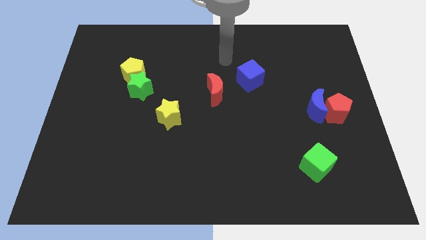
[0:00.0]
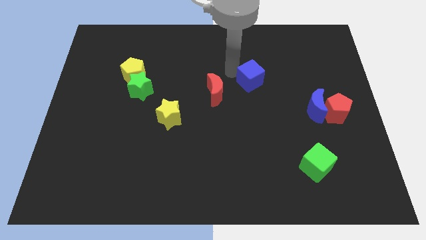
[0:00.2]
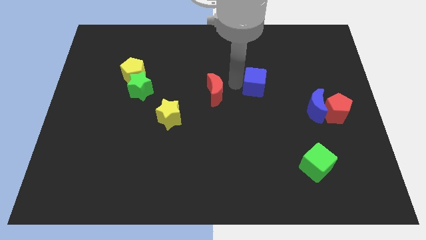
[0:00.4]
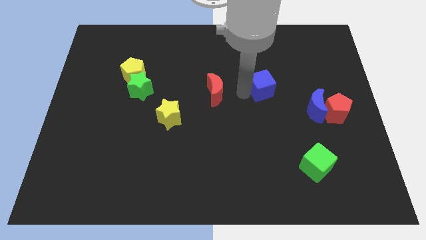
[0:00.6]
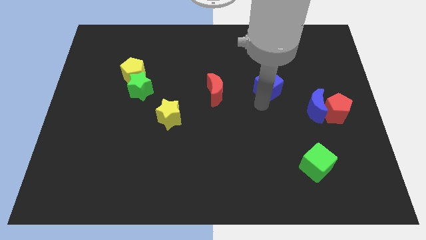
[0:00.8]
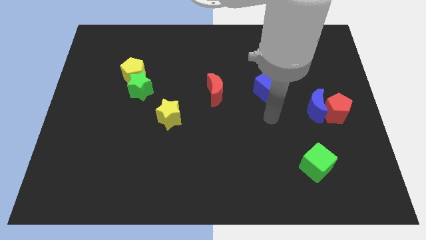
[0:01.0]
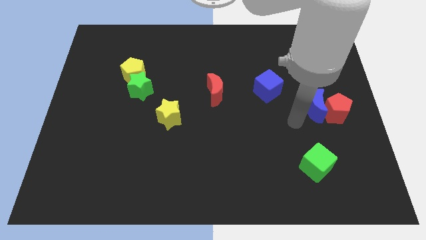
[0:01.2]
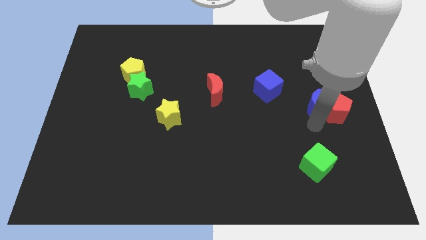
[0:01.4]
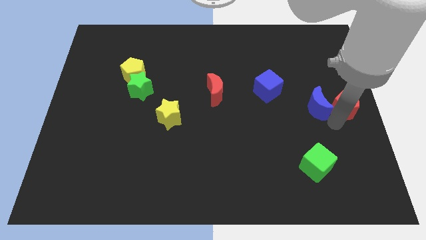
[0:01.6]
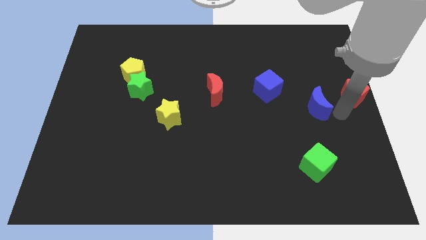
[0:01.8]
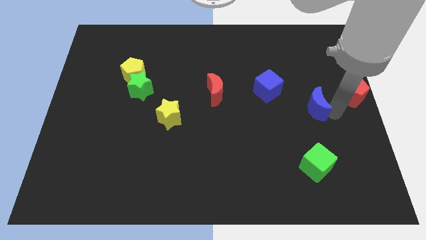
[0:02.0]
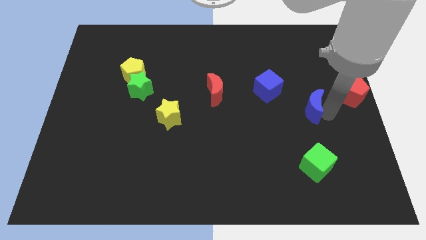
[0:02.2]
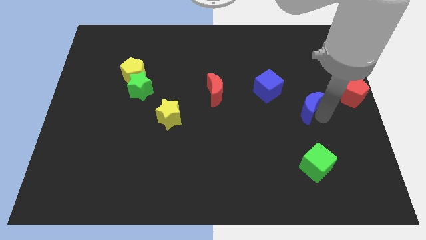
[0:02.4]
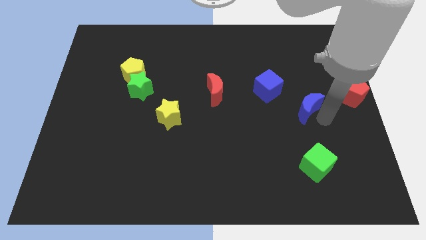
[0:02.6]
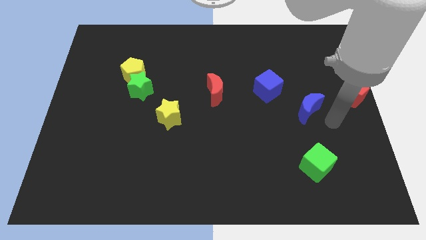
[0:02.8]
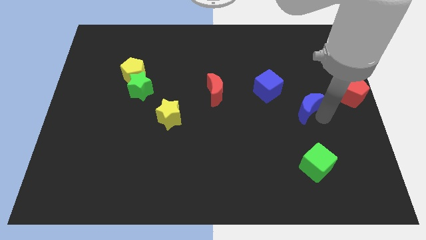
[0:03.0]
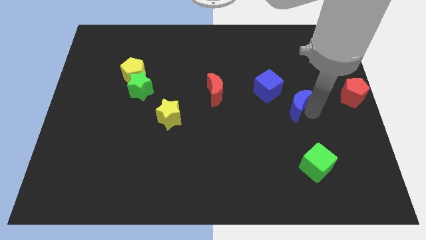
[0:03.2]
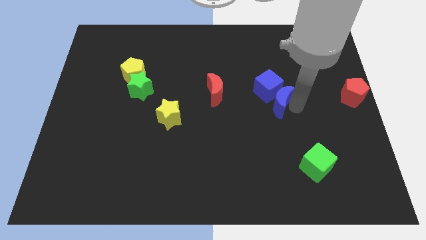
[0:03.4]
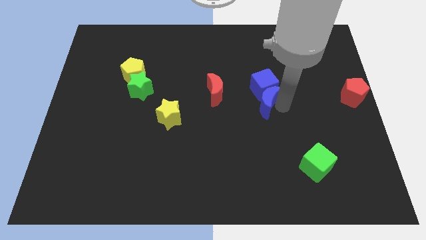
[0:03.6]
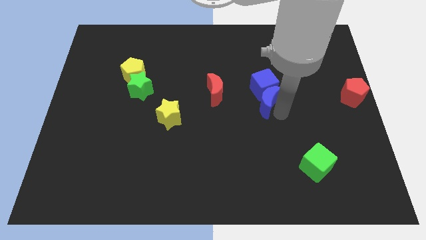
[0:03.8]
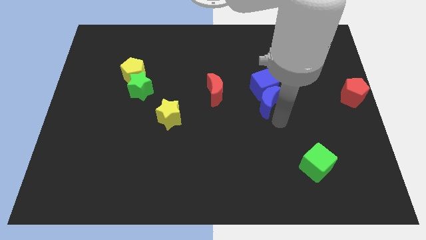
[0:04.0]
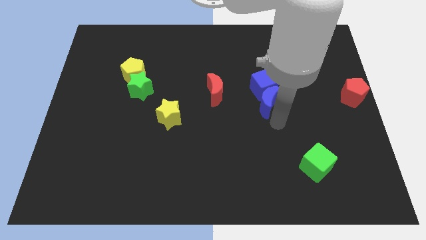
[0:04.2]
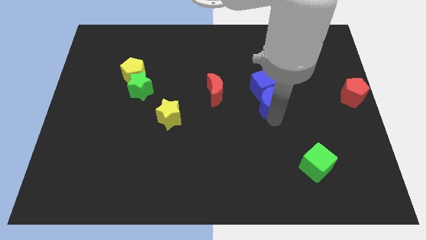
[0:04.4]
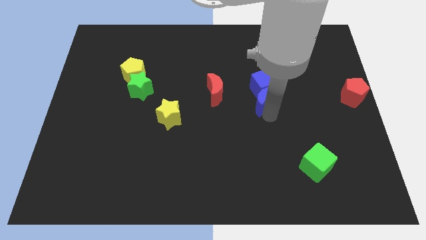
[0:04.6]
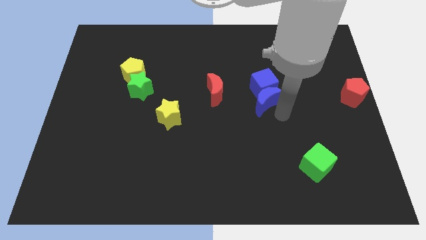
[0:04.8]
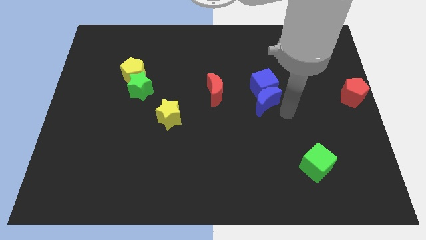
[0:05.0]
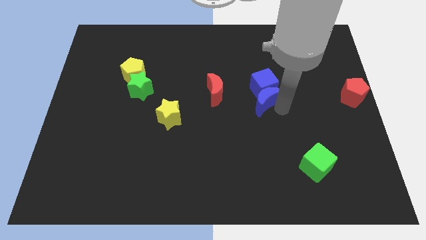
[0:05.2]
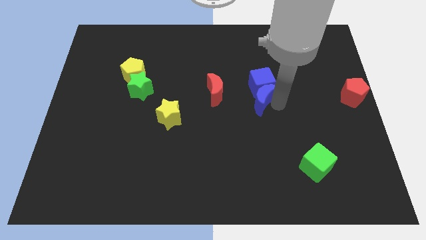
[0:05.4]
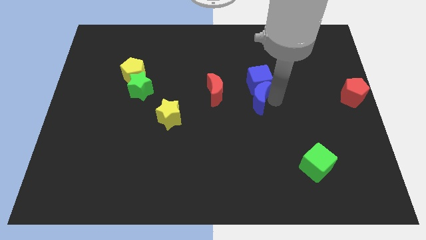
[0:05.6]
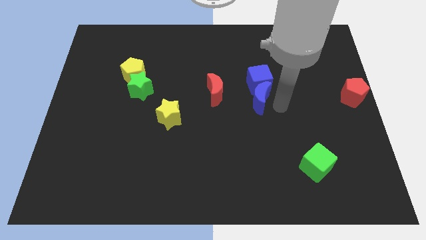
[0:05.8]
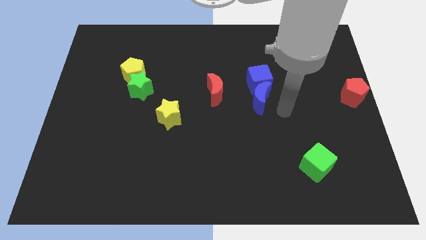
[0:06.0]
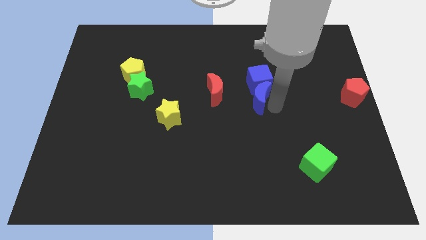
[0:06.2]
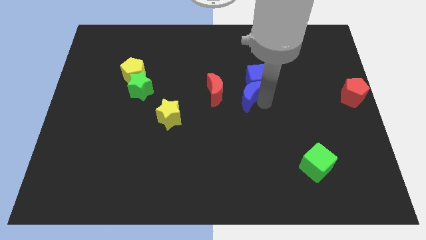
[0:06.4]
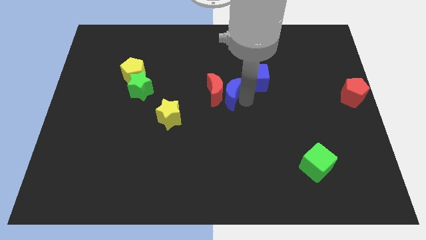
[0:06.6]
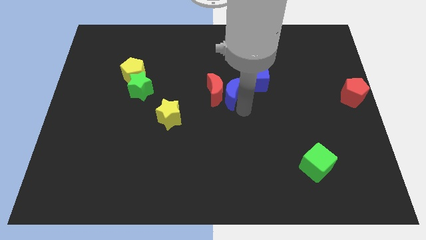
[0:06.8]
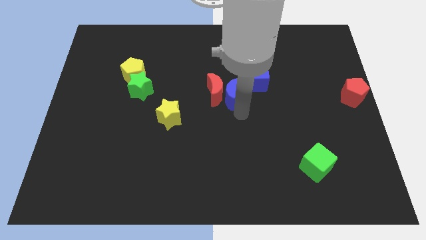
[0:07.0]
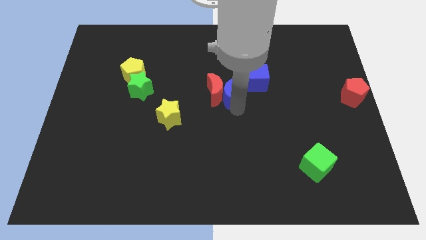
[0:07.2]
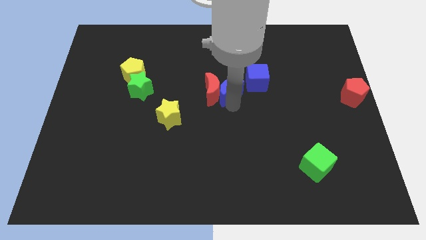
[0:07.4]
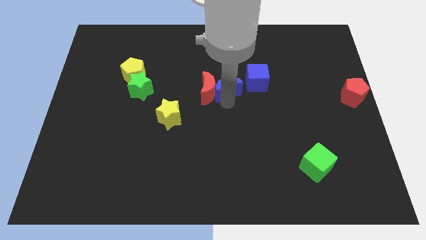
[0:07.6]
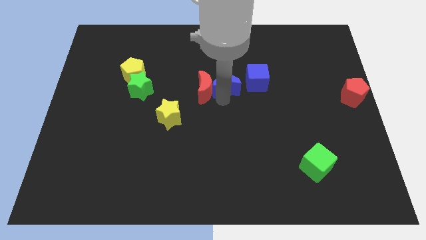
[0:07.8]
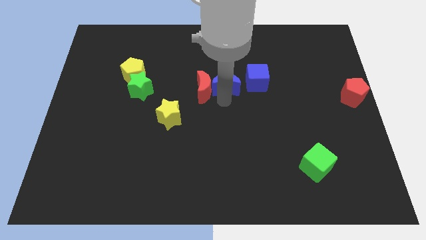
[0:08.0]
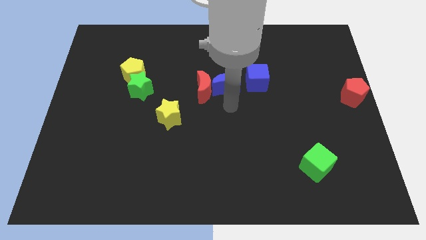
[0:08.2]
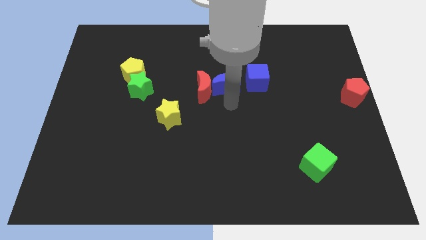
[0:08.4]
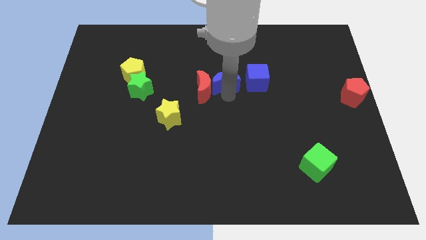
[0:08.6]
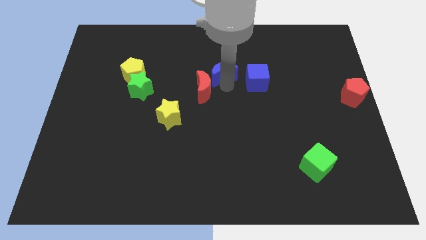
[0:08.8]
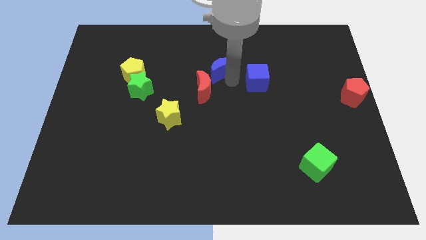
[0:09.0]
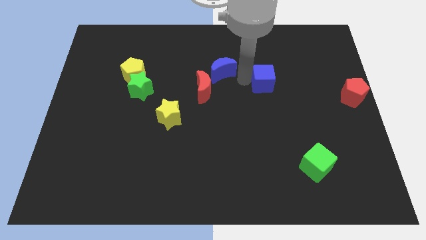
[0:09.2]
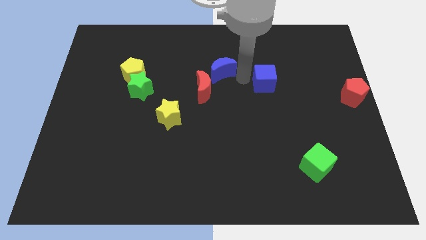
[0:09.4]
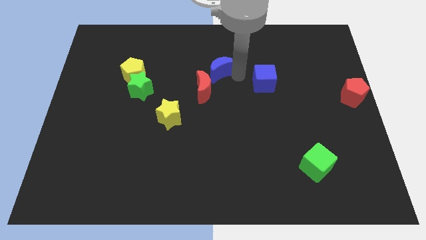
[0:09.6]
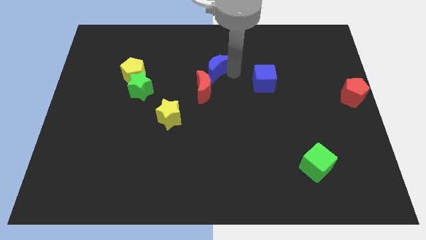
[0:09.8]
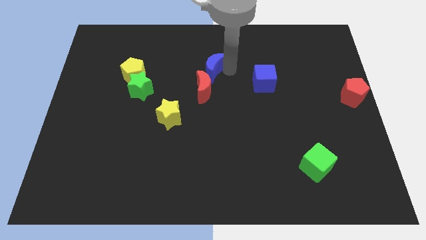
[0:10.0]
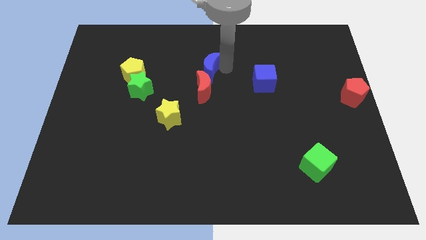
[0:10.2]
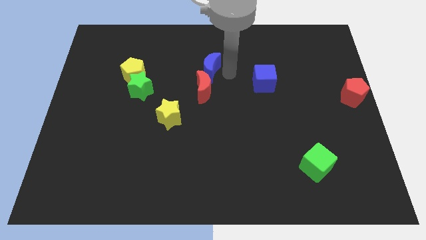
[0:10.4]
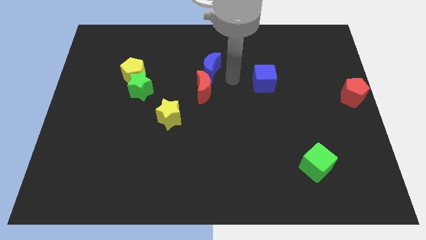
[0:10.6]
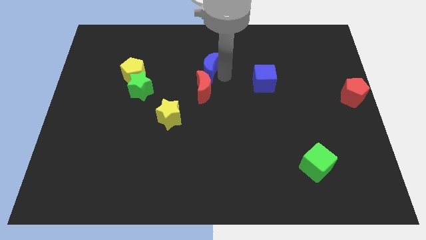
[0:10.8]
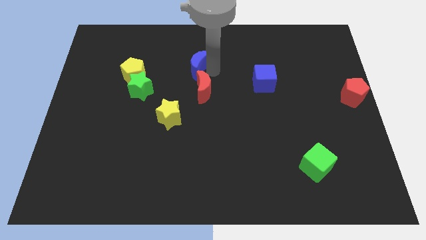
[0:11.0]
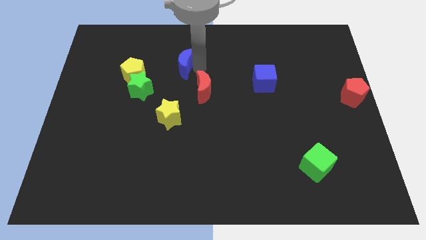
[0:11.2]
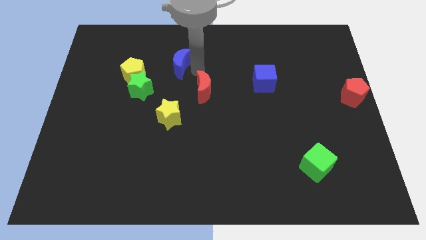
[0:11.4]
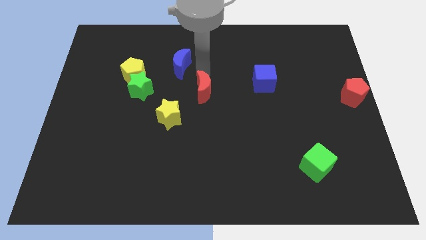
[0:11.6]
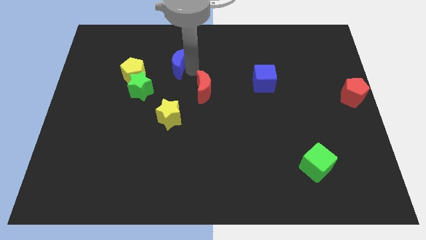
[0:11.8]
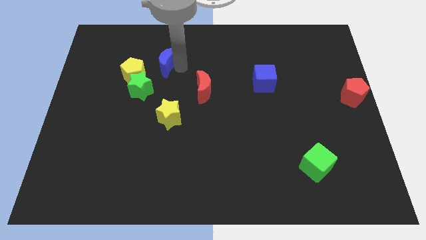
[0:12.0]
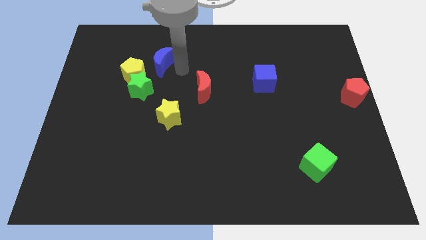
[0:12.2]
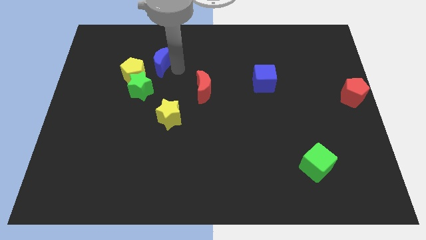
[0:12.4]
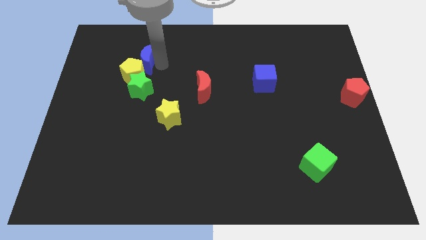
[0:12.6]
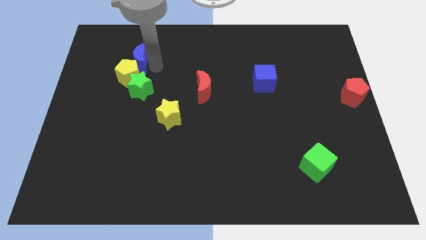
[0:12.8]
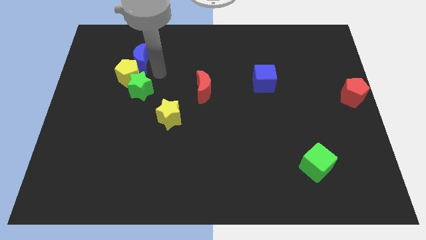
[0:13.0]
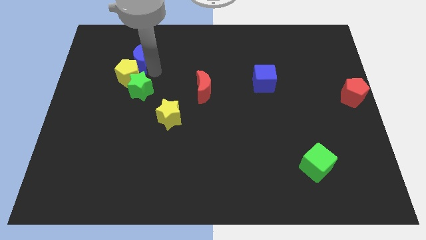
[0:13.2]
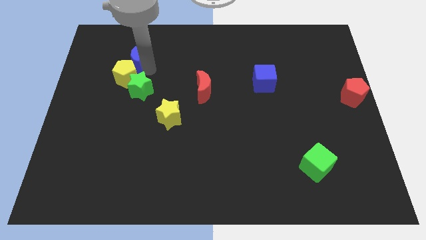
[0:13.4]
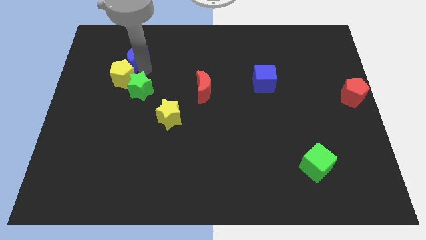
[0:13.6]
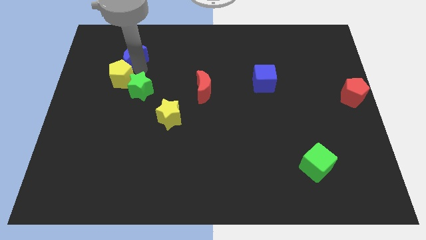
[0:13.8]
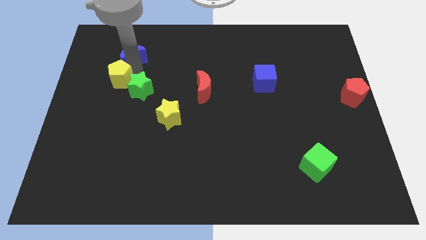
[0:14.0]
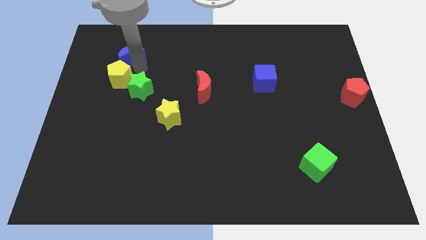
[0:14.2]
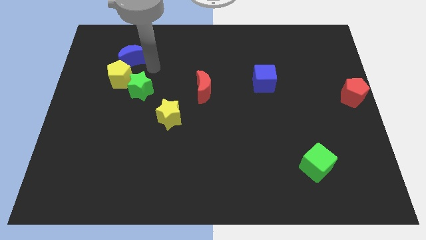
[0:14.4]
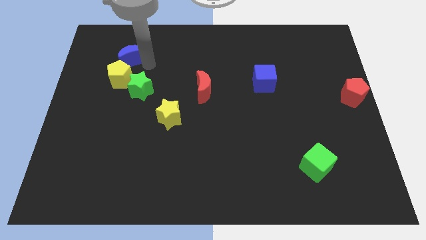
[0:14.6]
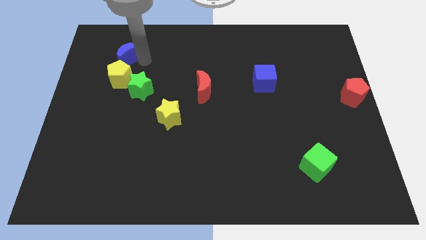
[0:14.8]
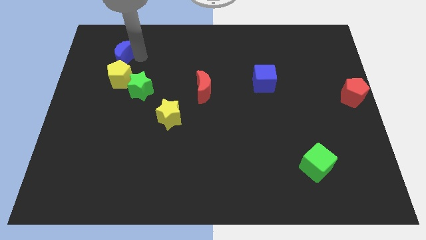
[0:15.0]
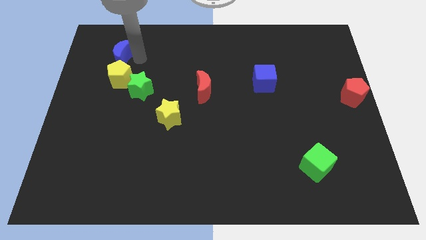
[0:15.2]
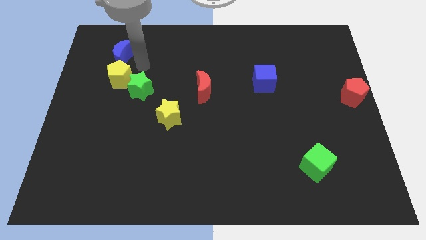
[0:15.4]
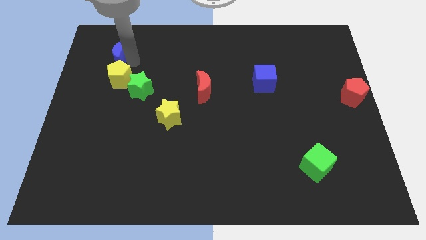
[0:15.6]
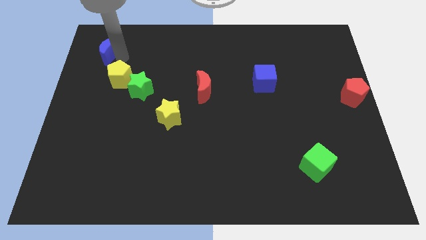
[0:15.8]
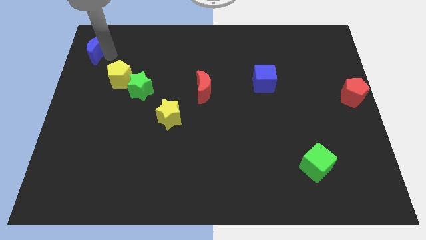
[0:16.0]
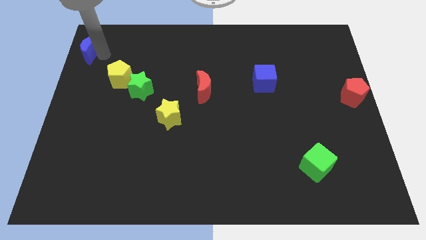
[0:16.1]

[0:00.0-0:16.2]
move the blue moon to the top left
